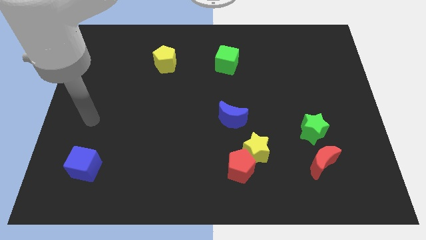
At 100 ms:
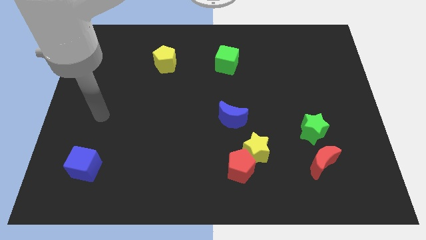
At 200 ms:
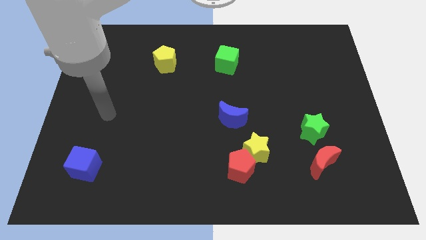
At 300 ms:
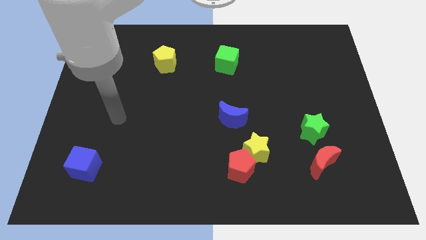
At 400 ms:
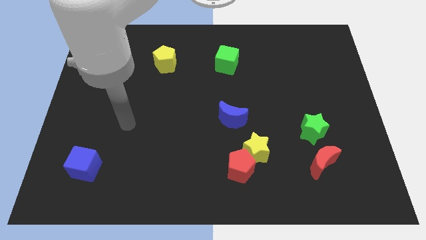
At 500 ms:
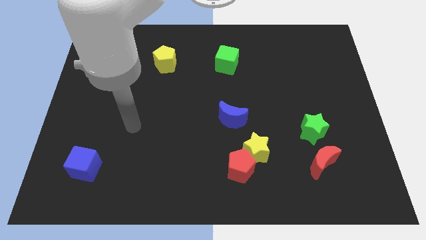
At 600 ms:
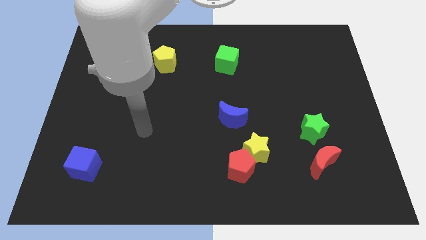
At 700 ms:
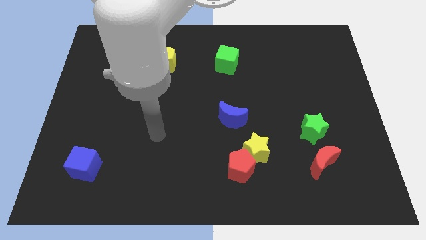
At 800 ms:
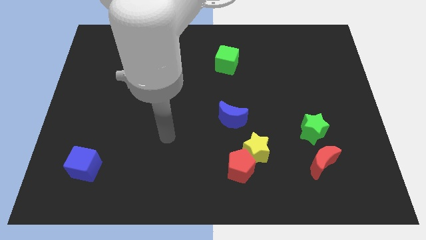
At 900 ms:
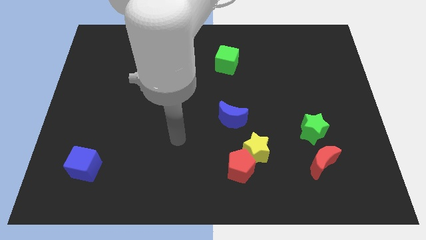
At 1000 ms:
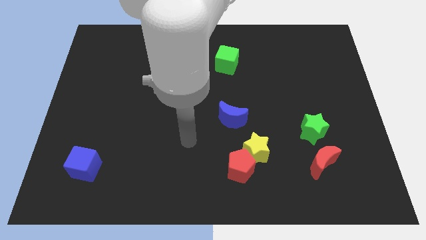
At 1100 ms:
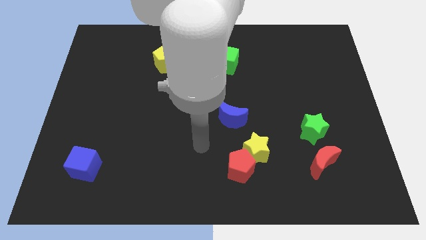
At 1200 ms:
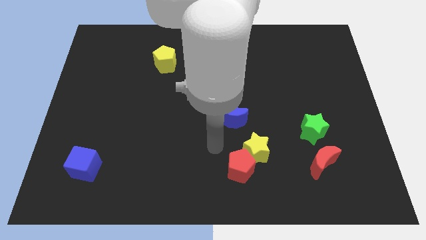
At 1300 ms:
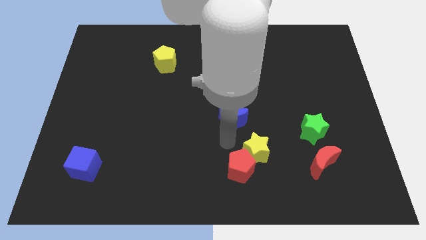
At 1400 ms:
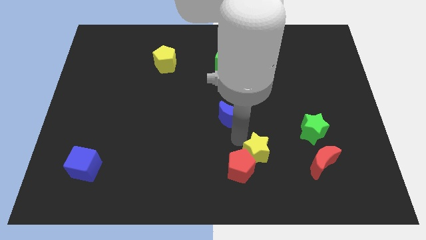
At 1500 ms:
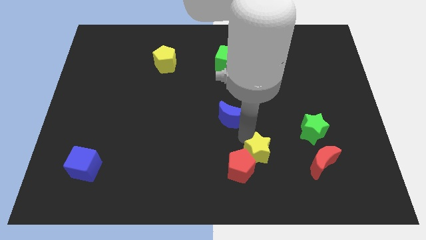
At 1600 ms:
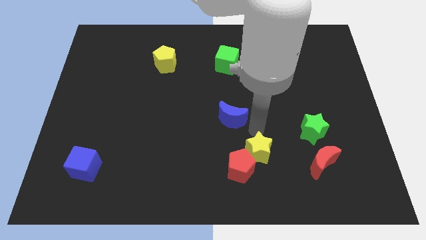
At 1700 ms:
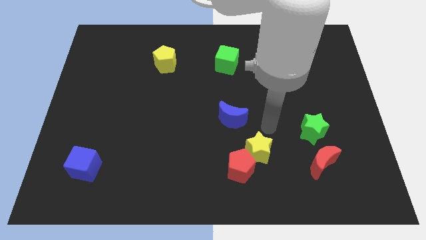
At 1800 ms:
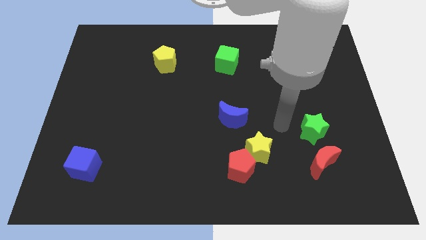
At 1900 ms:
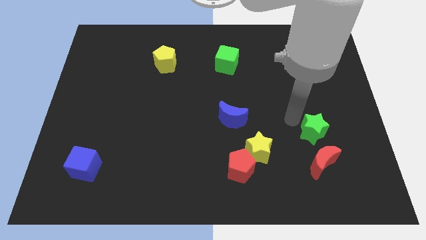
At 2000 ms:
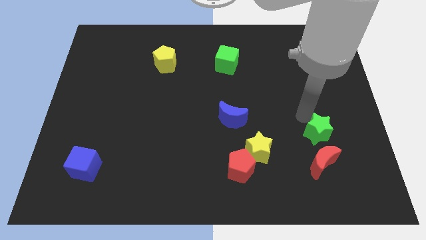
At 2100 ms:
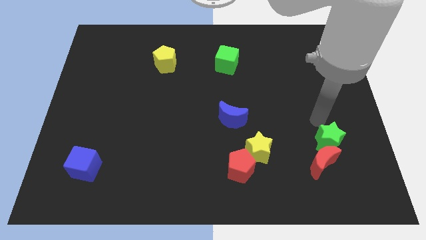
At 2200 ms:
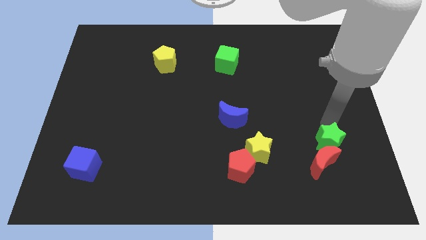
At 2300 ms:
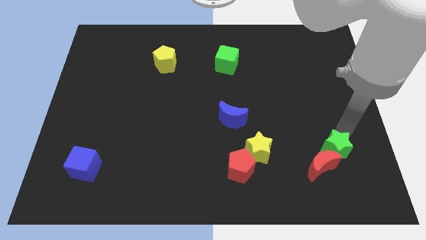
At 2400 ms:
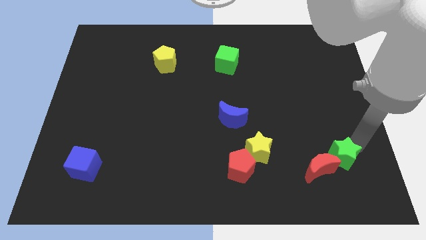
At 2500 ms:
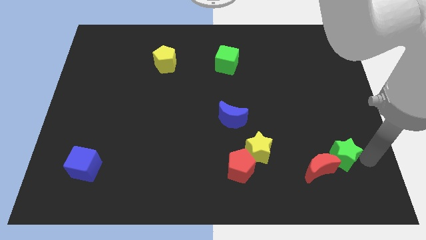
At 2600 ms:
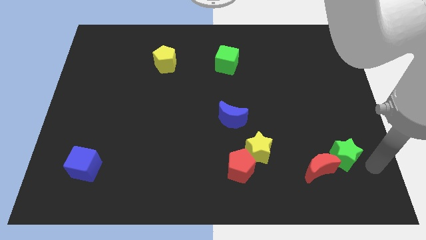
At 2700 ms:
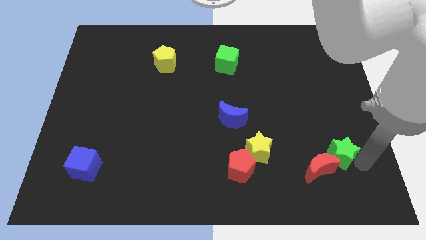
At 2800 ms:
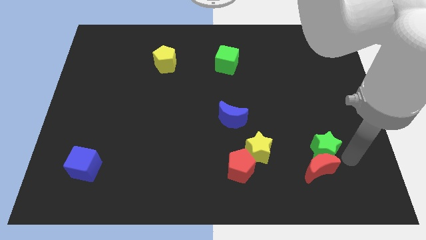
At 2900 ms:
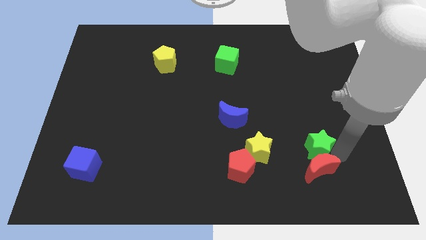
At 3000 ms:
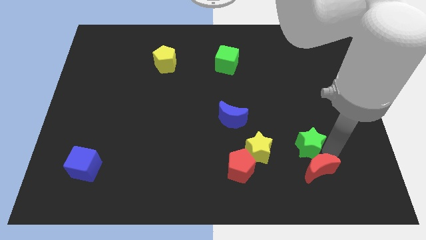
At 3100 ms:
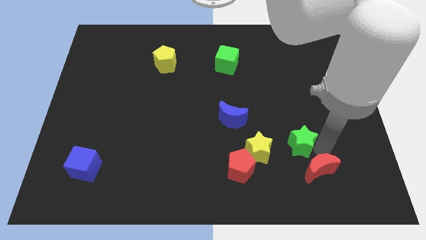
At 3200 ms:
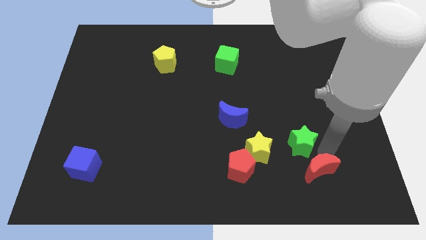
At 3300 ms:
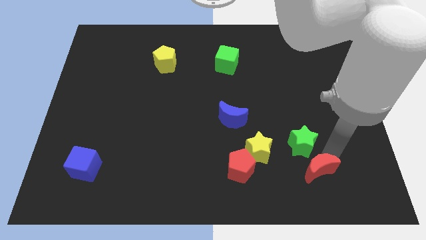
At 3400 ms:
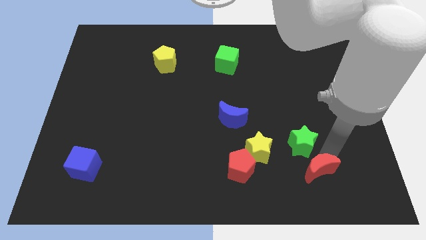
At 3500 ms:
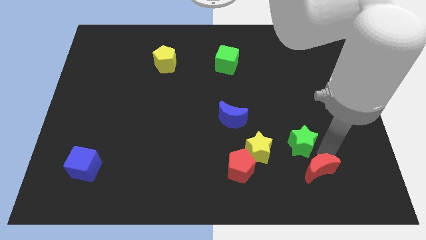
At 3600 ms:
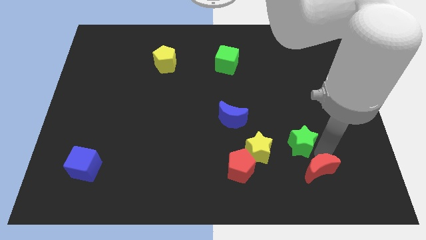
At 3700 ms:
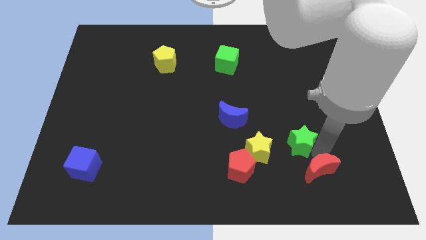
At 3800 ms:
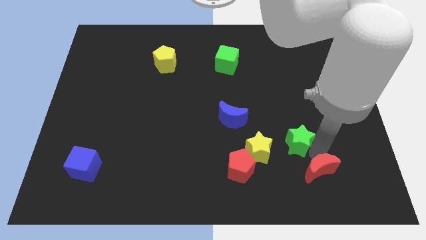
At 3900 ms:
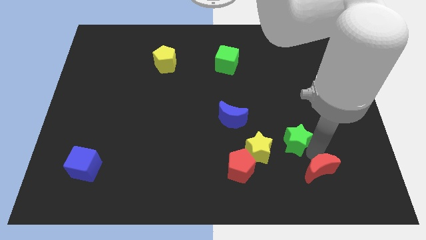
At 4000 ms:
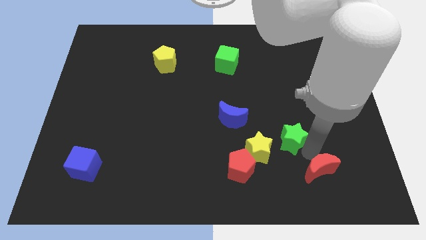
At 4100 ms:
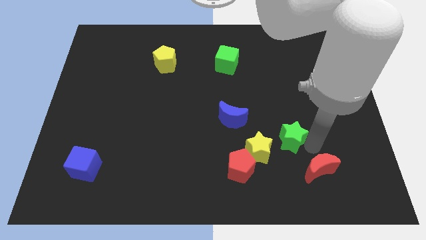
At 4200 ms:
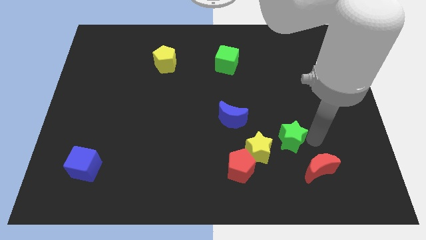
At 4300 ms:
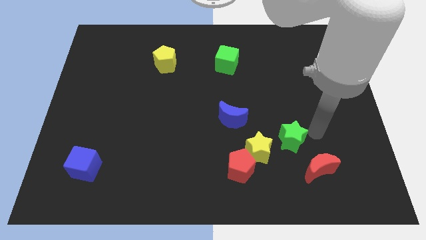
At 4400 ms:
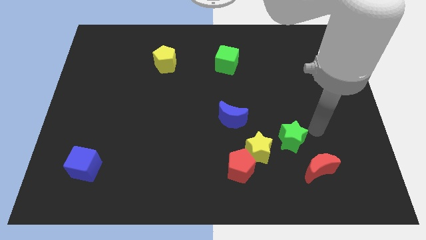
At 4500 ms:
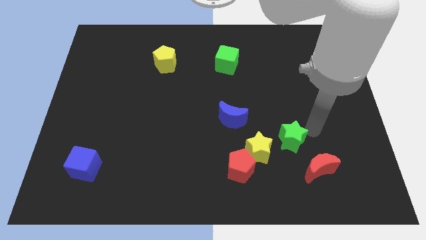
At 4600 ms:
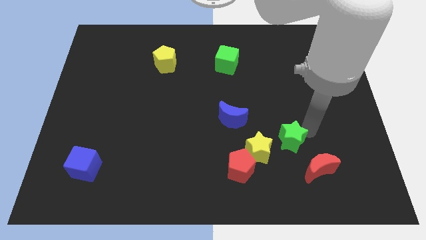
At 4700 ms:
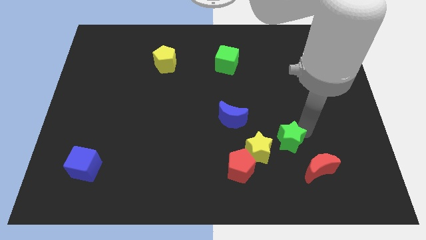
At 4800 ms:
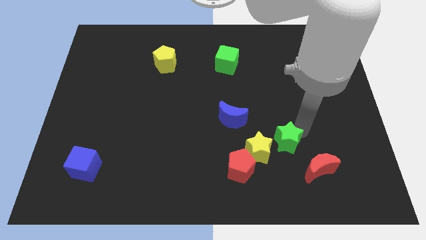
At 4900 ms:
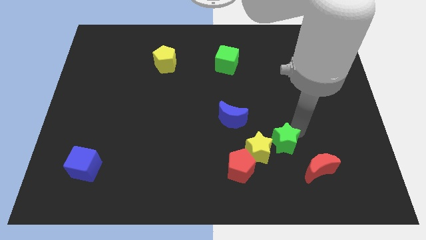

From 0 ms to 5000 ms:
slide the green star next to the yellow star
